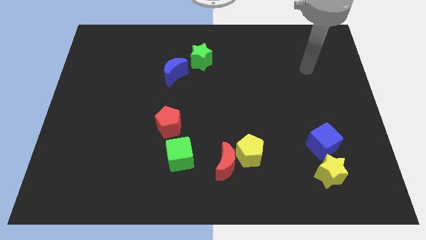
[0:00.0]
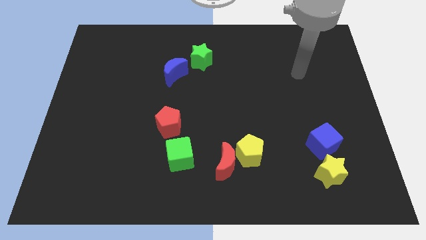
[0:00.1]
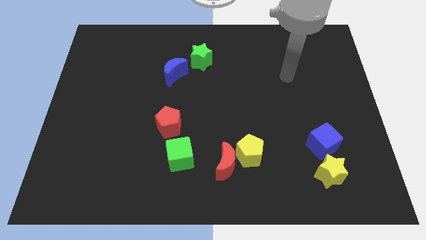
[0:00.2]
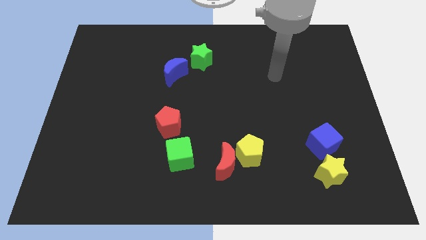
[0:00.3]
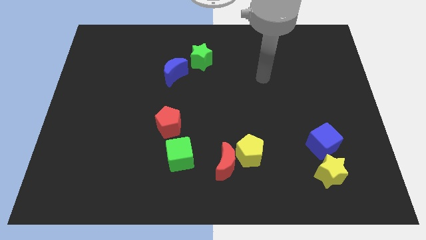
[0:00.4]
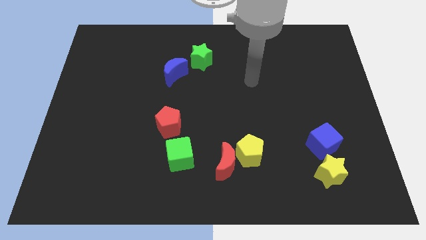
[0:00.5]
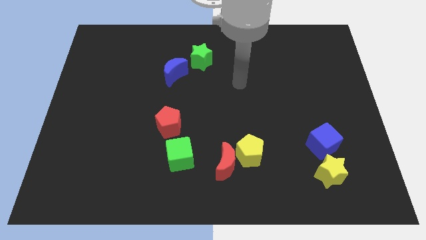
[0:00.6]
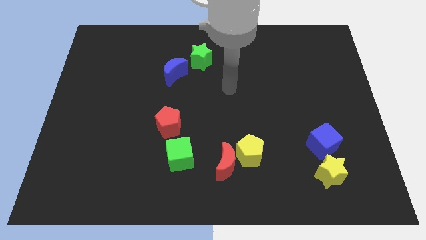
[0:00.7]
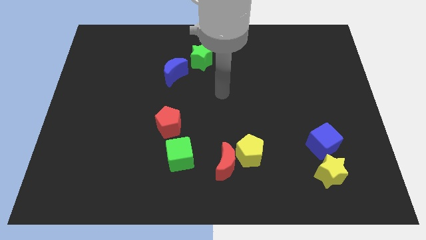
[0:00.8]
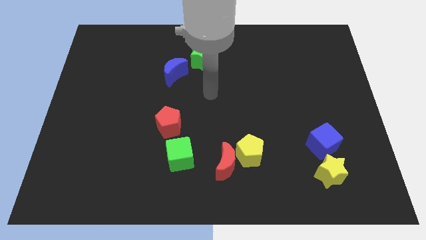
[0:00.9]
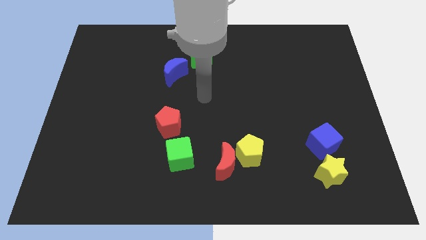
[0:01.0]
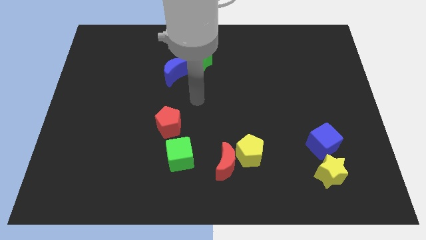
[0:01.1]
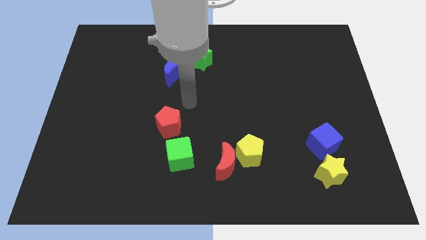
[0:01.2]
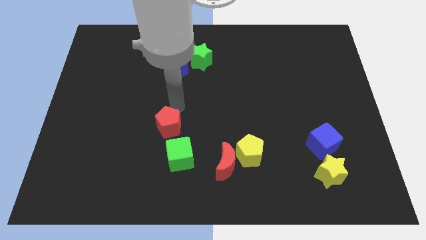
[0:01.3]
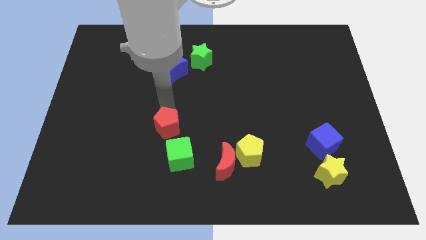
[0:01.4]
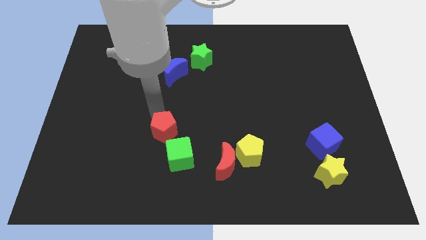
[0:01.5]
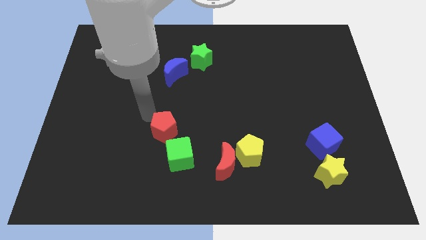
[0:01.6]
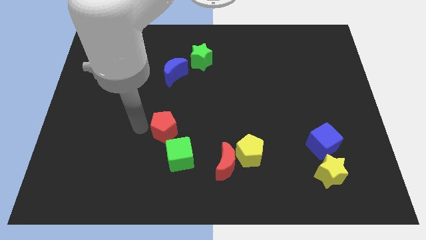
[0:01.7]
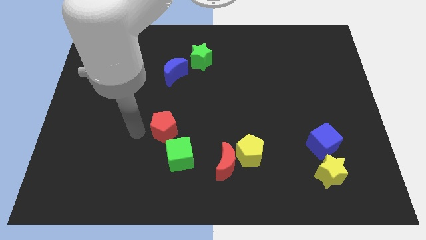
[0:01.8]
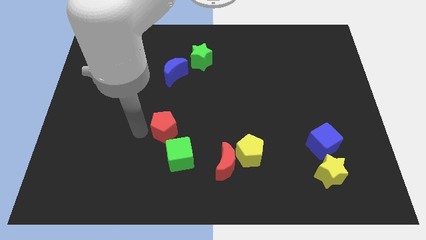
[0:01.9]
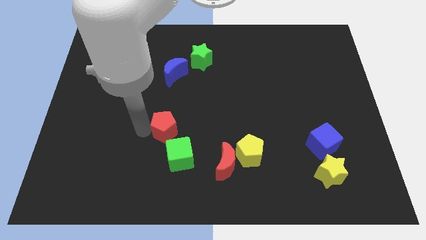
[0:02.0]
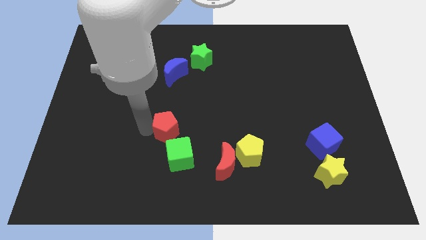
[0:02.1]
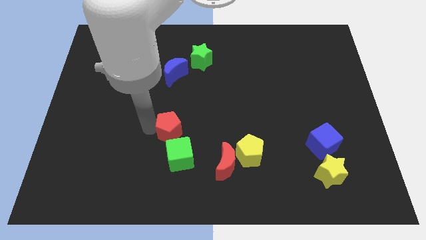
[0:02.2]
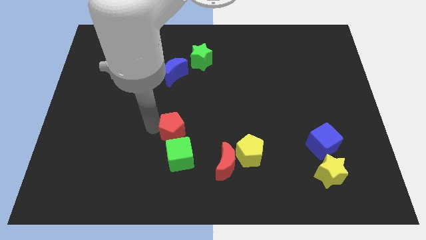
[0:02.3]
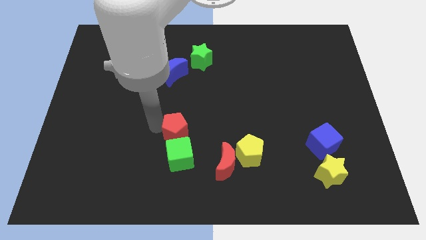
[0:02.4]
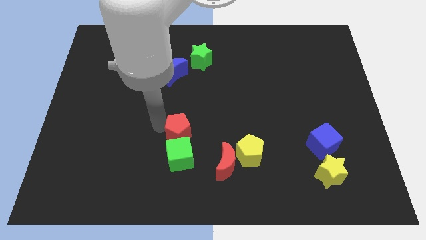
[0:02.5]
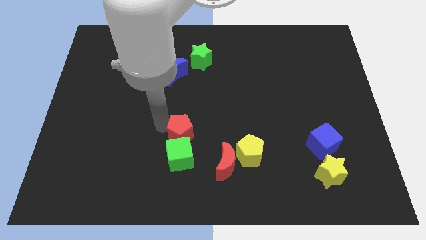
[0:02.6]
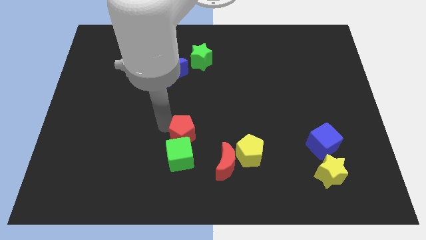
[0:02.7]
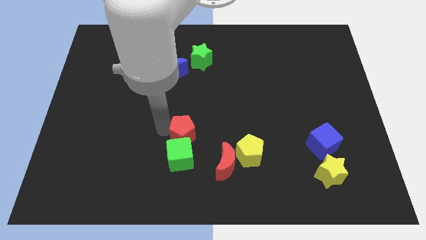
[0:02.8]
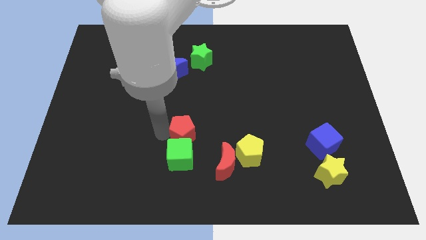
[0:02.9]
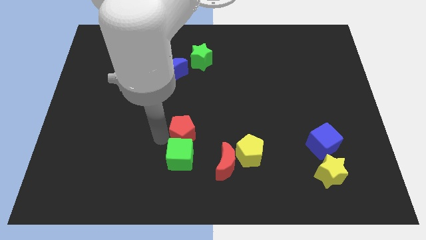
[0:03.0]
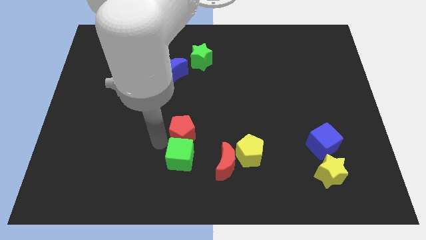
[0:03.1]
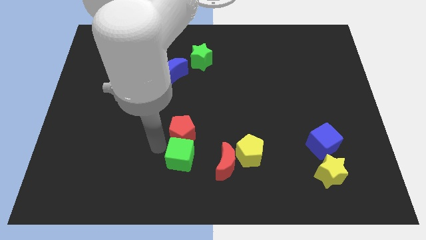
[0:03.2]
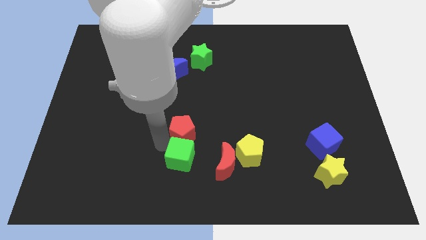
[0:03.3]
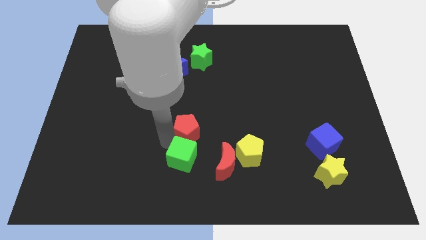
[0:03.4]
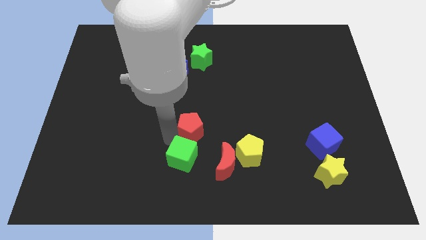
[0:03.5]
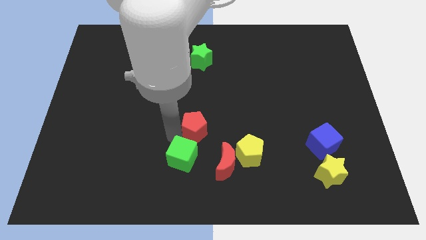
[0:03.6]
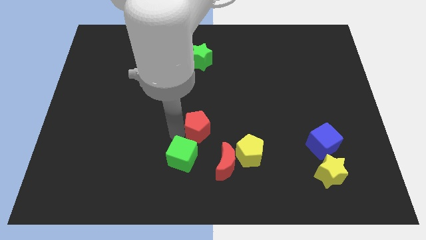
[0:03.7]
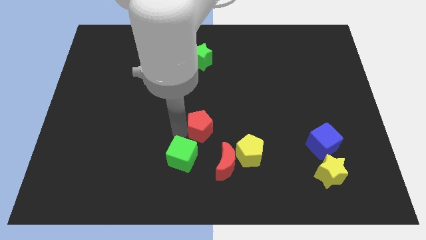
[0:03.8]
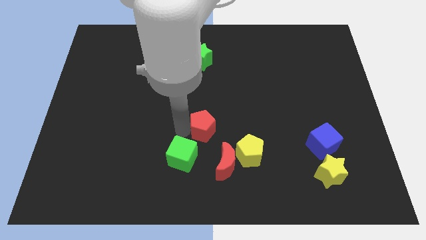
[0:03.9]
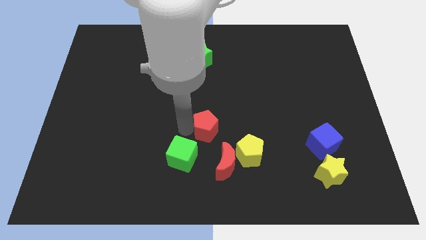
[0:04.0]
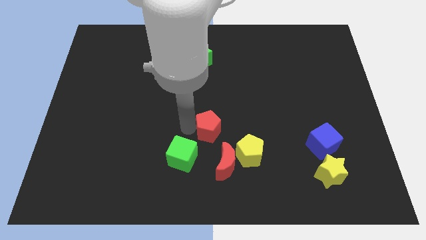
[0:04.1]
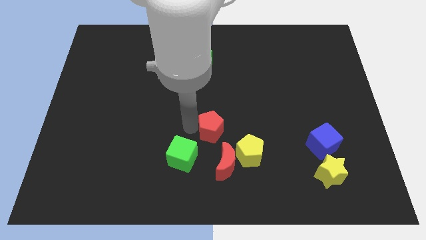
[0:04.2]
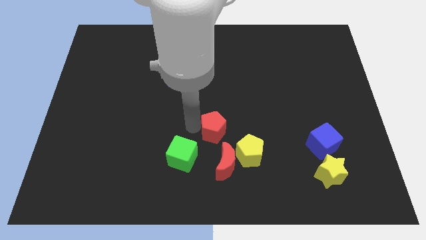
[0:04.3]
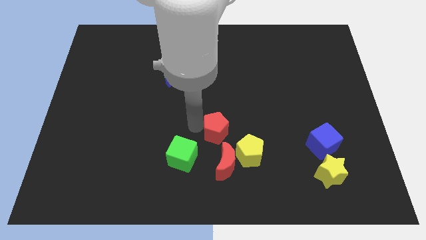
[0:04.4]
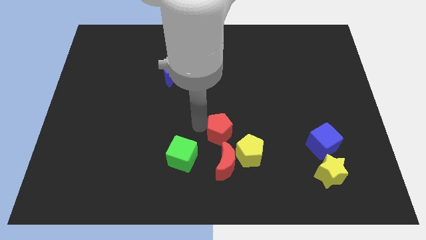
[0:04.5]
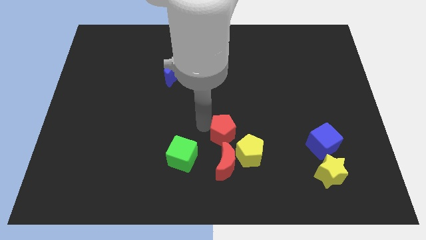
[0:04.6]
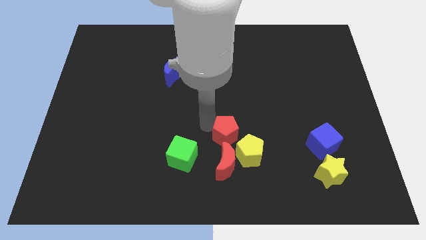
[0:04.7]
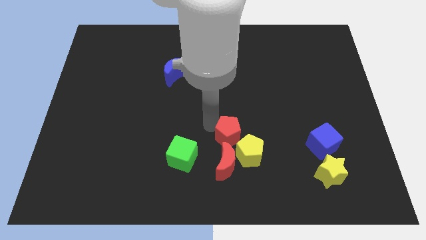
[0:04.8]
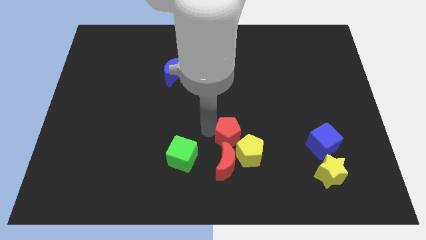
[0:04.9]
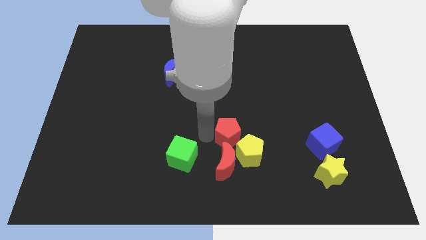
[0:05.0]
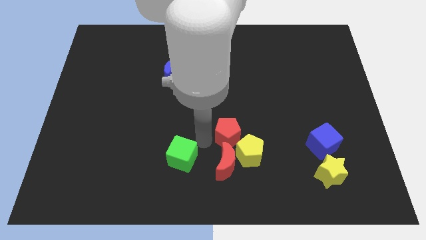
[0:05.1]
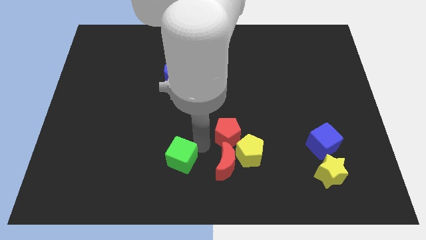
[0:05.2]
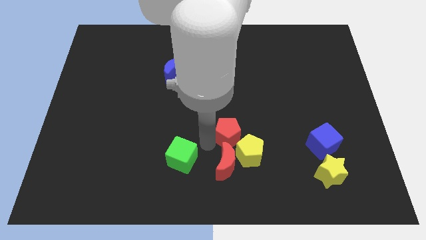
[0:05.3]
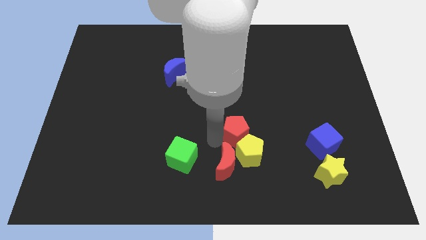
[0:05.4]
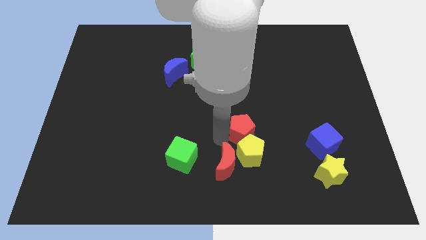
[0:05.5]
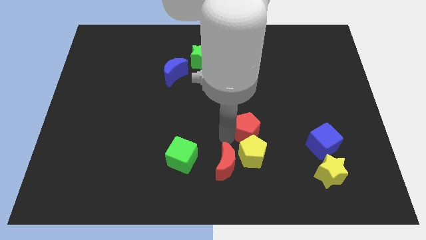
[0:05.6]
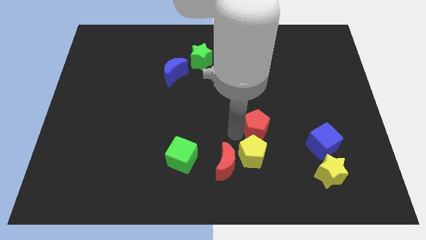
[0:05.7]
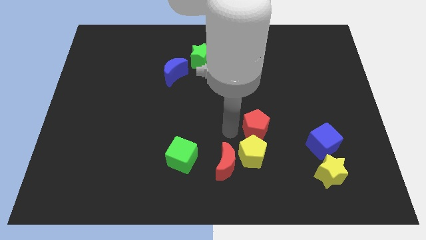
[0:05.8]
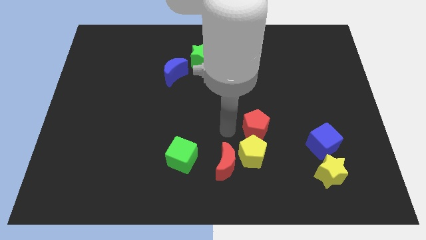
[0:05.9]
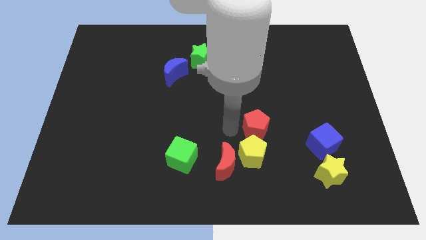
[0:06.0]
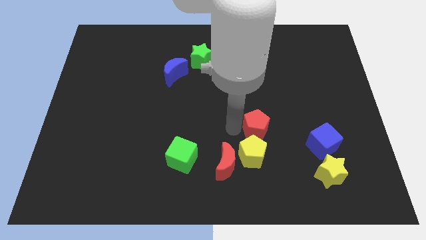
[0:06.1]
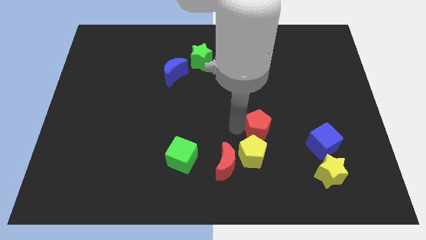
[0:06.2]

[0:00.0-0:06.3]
slide the red pentagon right

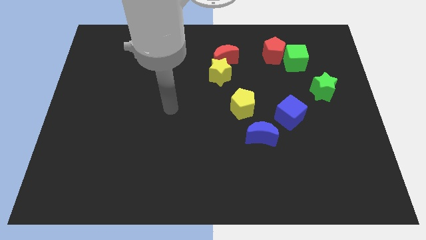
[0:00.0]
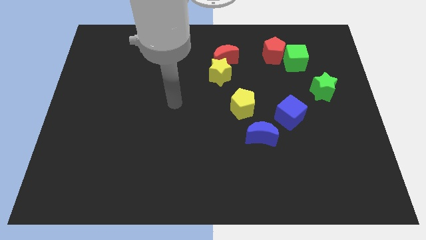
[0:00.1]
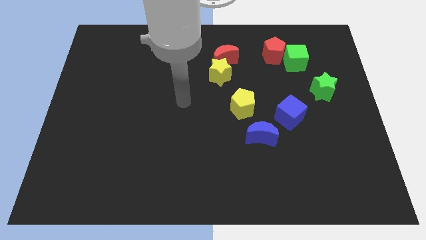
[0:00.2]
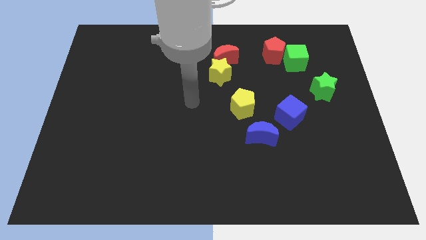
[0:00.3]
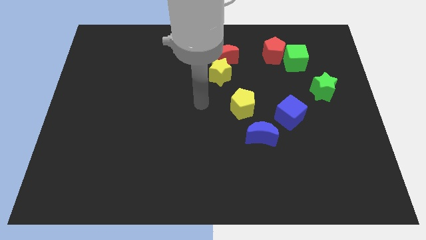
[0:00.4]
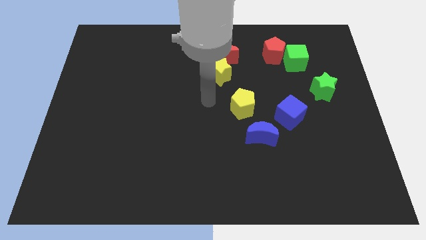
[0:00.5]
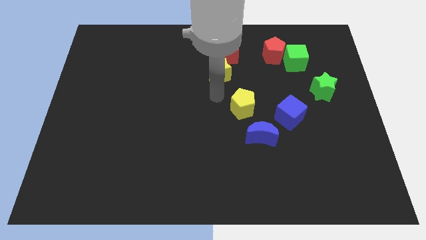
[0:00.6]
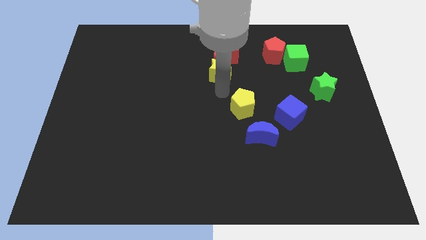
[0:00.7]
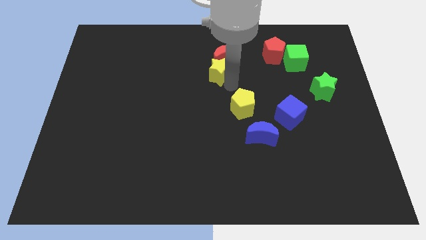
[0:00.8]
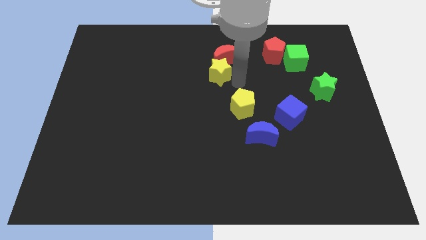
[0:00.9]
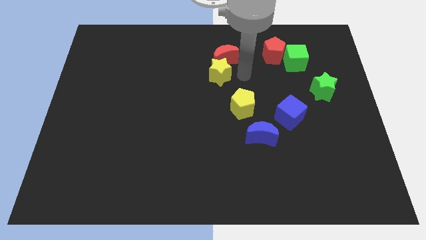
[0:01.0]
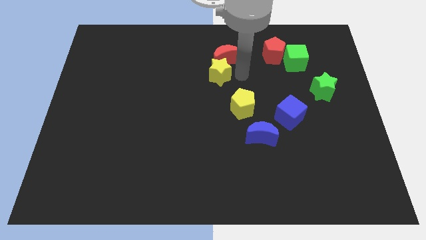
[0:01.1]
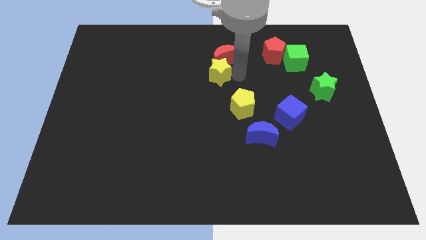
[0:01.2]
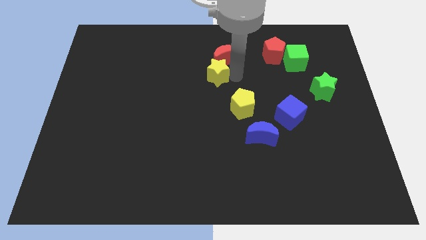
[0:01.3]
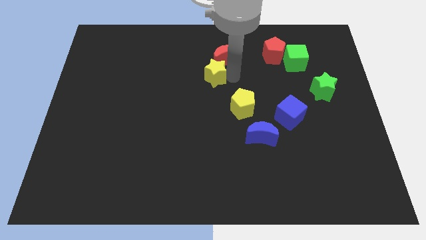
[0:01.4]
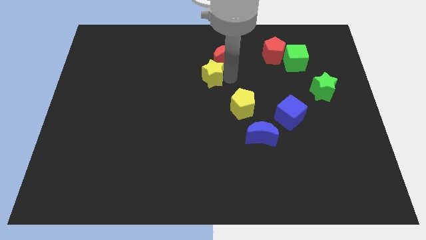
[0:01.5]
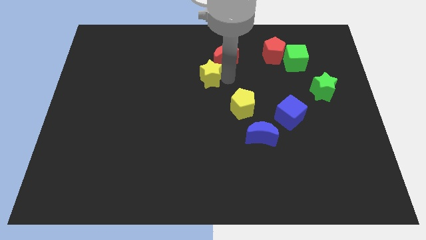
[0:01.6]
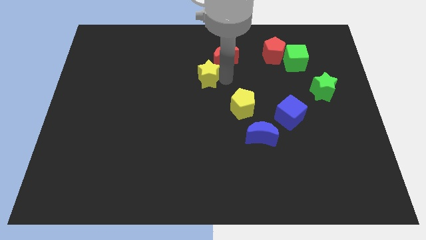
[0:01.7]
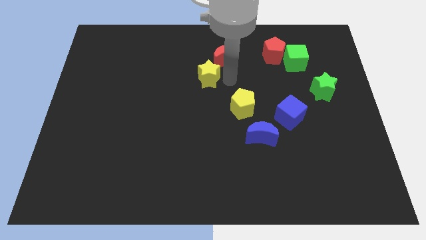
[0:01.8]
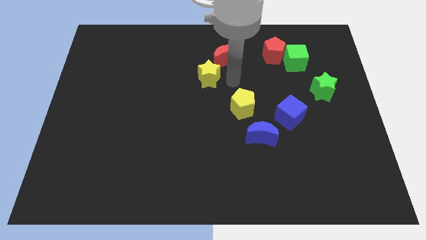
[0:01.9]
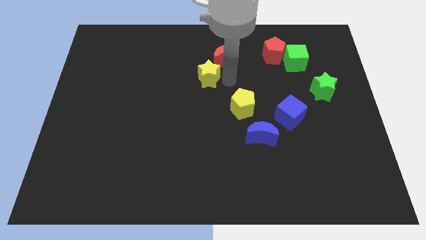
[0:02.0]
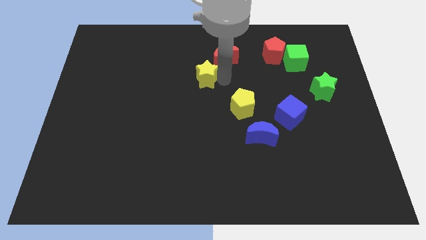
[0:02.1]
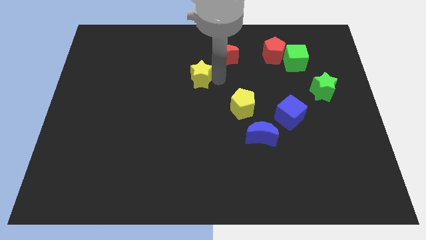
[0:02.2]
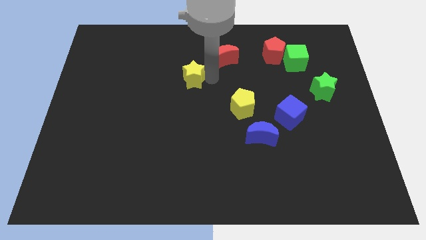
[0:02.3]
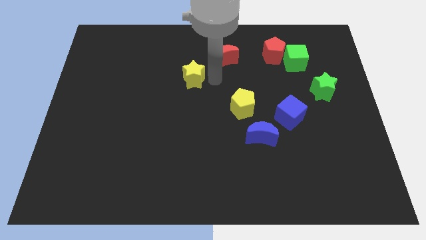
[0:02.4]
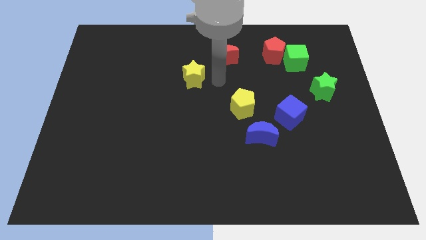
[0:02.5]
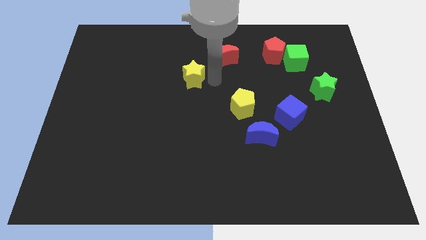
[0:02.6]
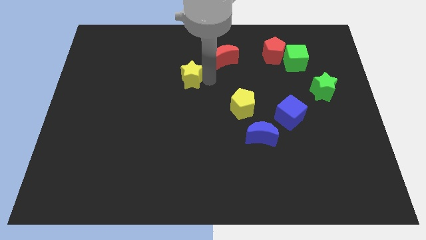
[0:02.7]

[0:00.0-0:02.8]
move the yellow star somewhat left
